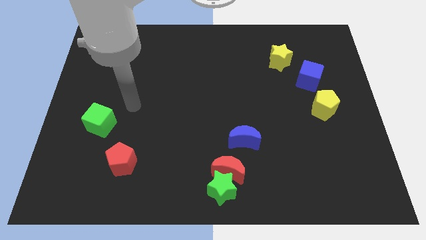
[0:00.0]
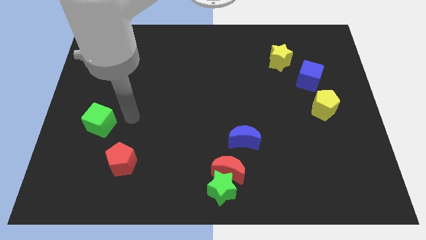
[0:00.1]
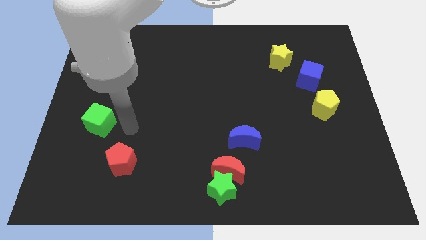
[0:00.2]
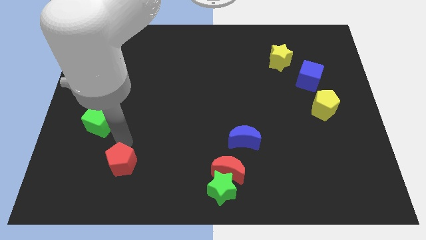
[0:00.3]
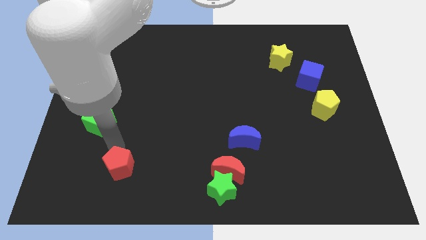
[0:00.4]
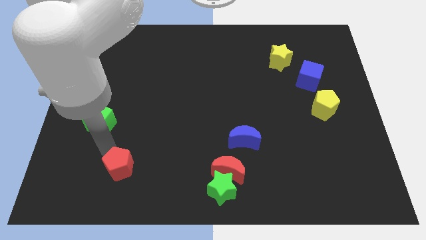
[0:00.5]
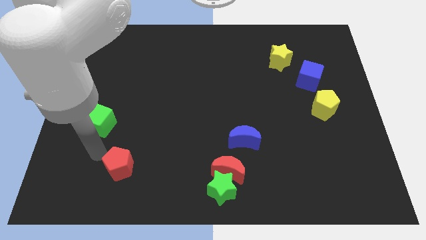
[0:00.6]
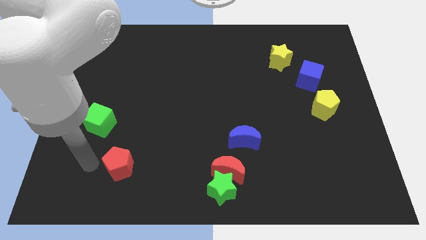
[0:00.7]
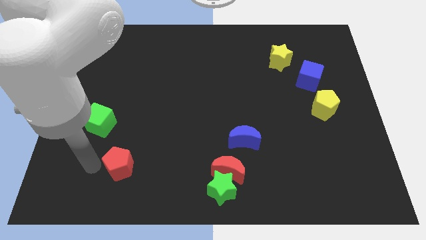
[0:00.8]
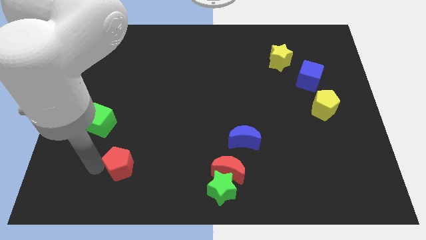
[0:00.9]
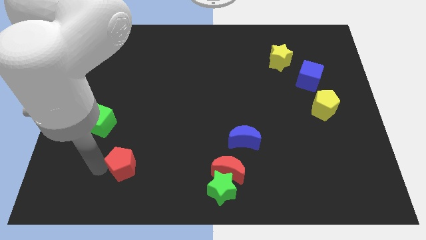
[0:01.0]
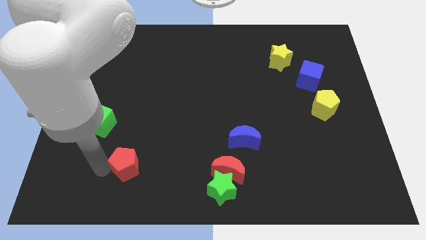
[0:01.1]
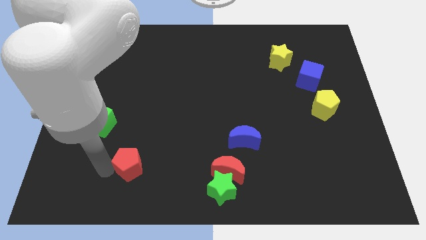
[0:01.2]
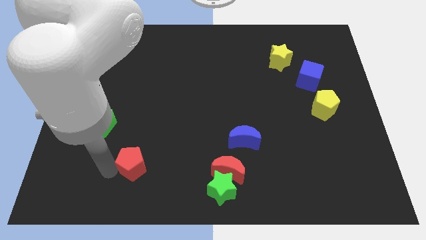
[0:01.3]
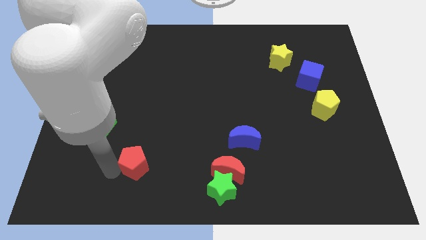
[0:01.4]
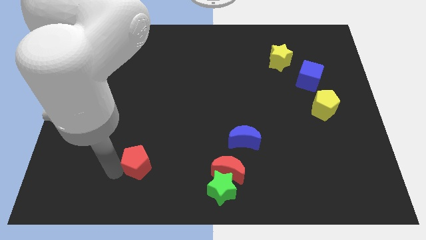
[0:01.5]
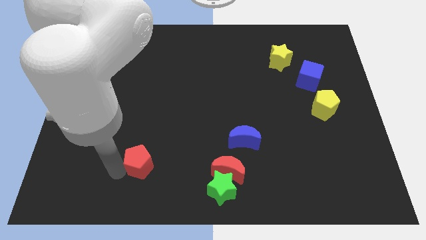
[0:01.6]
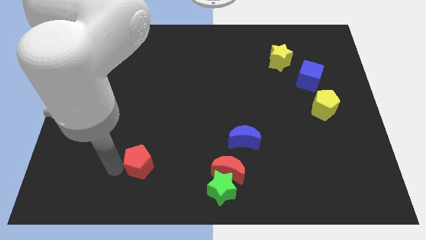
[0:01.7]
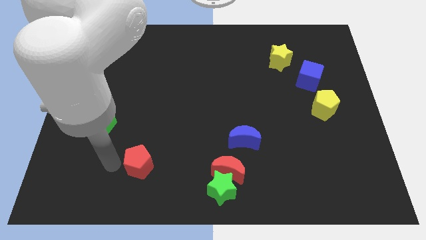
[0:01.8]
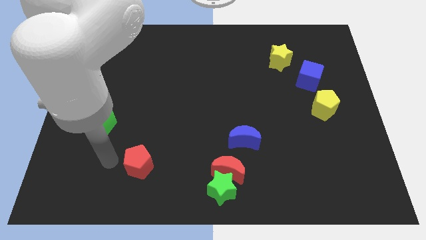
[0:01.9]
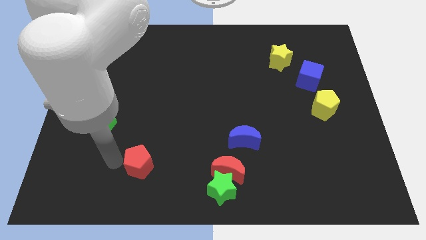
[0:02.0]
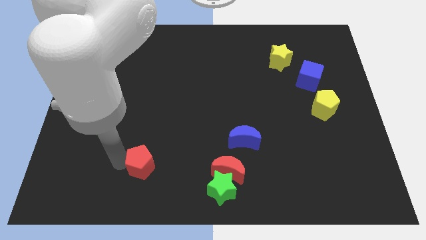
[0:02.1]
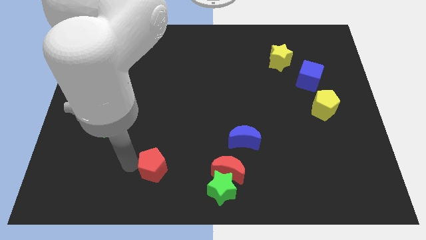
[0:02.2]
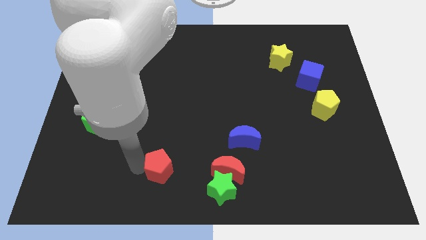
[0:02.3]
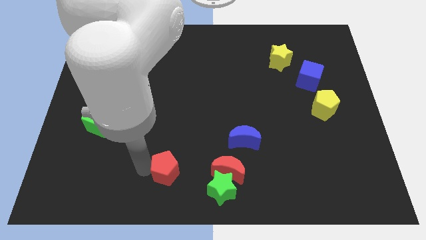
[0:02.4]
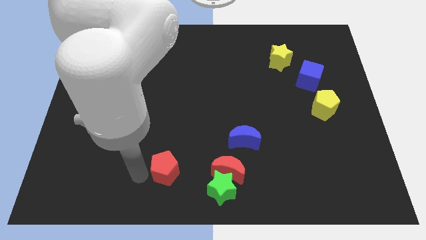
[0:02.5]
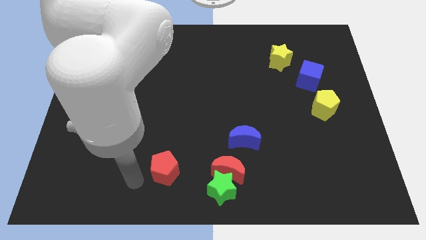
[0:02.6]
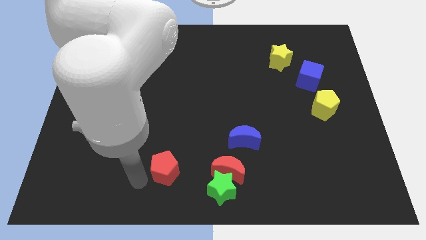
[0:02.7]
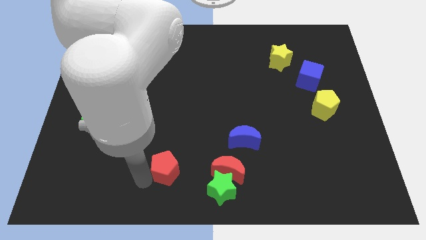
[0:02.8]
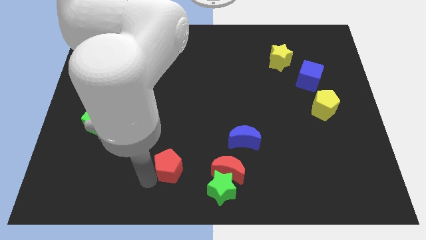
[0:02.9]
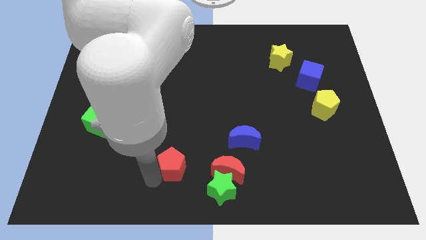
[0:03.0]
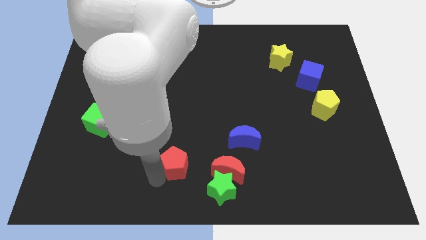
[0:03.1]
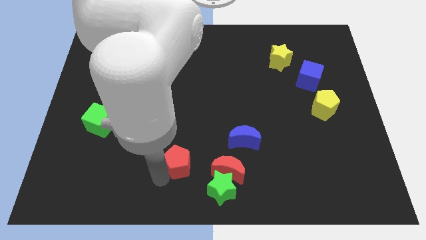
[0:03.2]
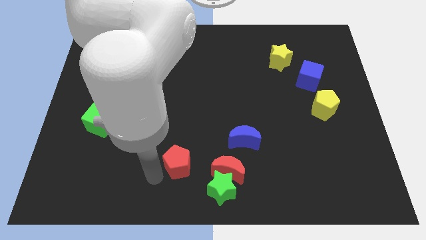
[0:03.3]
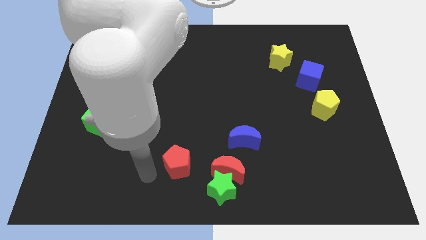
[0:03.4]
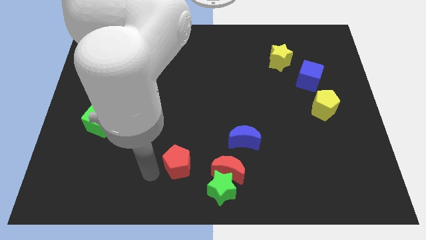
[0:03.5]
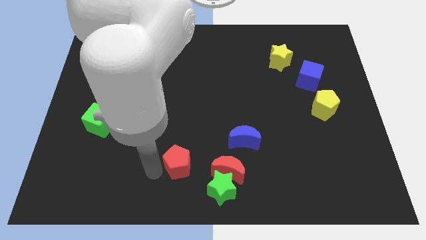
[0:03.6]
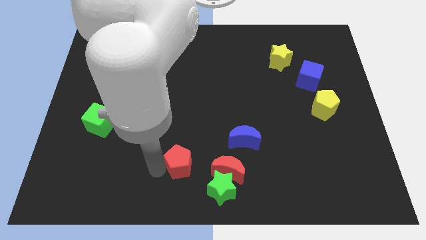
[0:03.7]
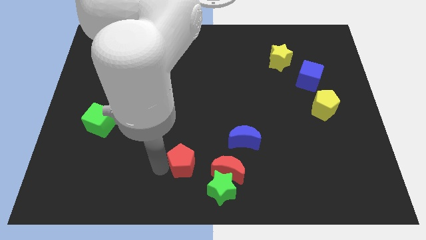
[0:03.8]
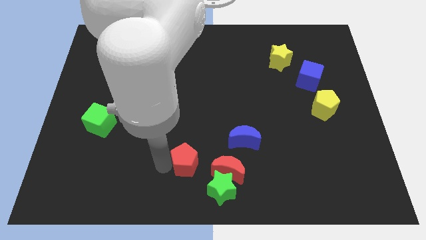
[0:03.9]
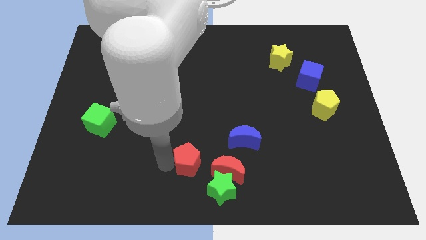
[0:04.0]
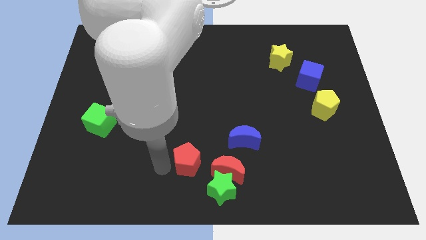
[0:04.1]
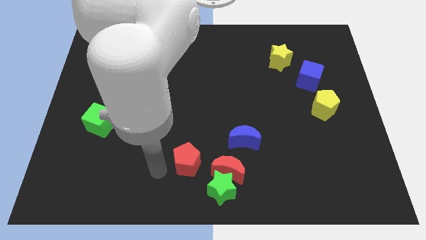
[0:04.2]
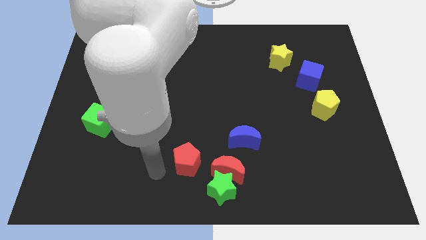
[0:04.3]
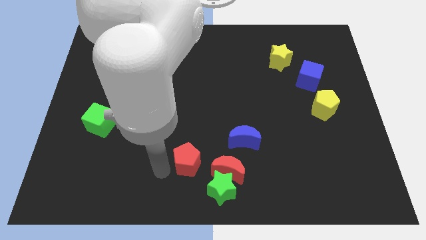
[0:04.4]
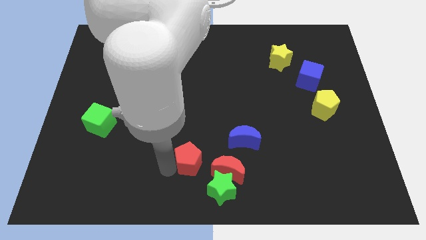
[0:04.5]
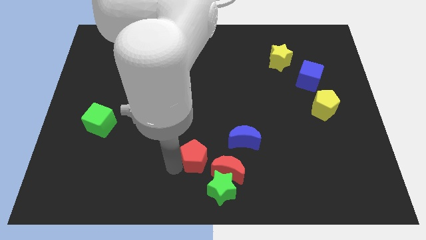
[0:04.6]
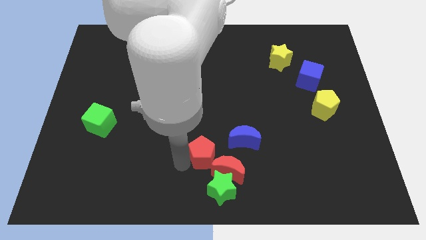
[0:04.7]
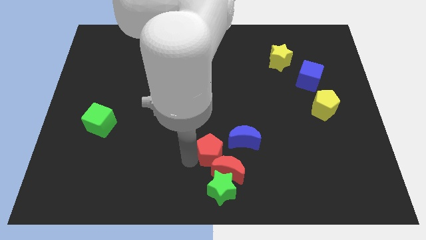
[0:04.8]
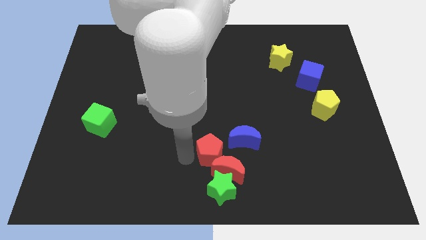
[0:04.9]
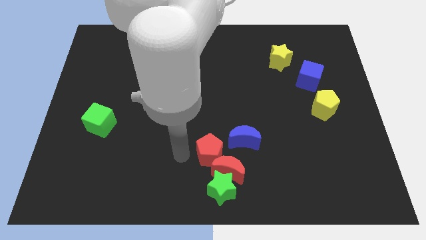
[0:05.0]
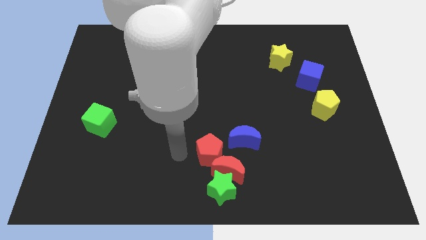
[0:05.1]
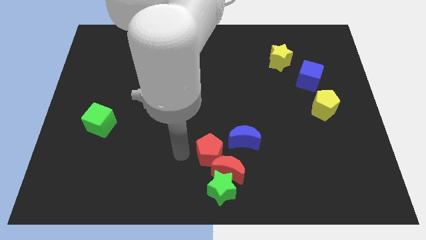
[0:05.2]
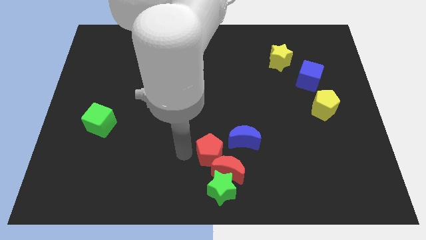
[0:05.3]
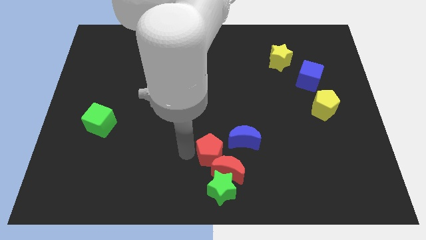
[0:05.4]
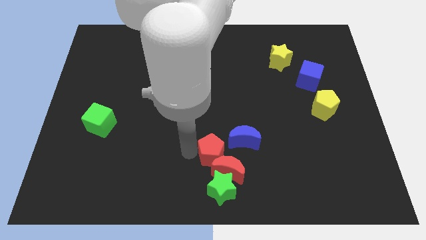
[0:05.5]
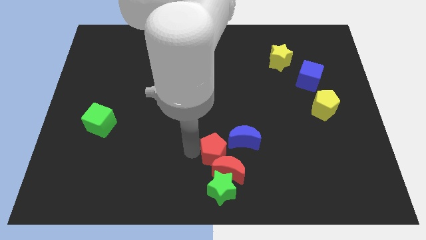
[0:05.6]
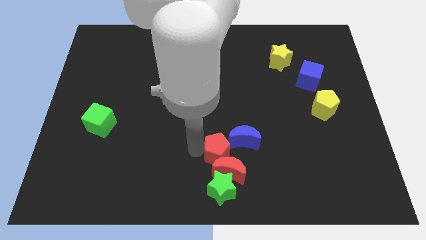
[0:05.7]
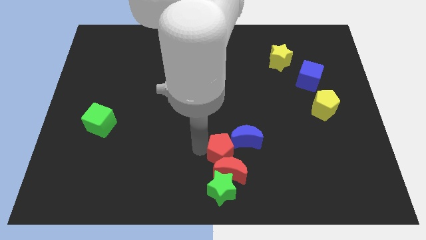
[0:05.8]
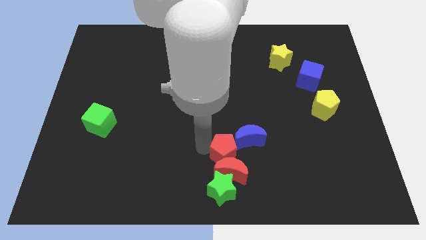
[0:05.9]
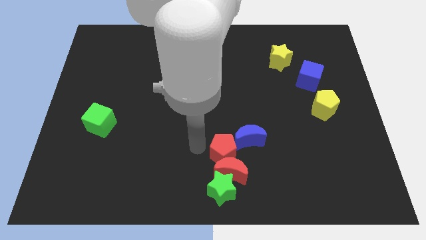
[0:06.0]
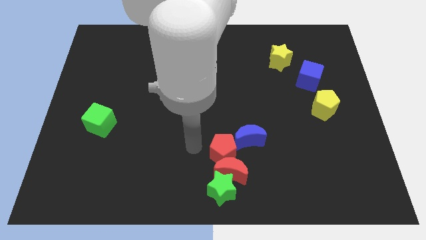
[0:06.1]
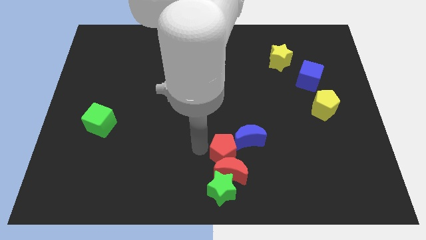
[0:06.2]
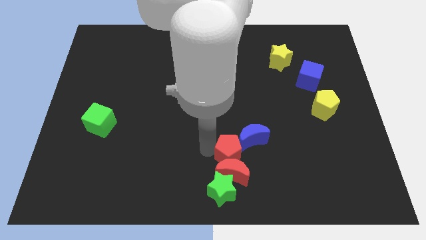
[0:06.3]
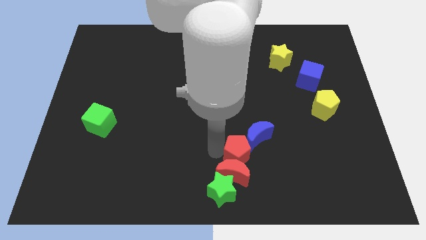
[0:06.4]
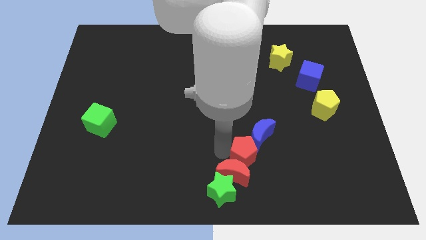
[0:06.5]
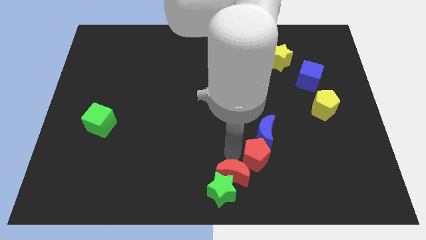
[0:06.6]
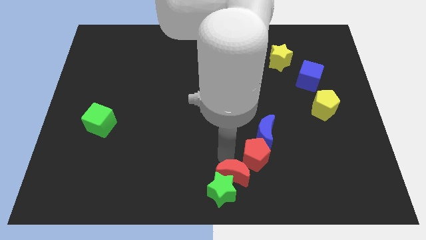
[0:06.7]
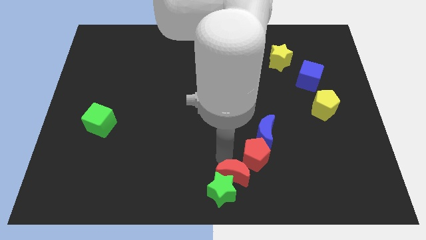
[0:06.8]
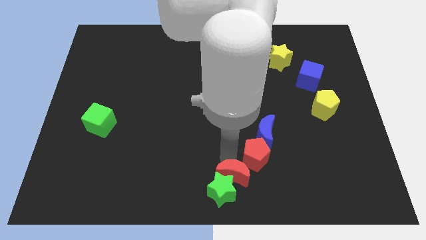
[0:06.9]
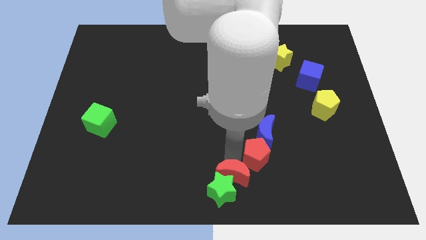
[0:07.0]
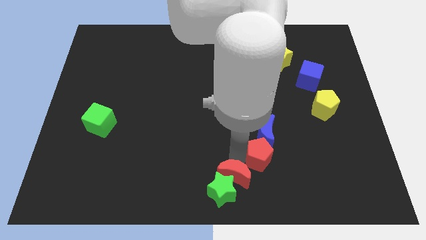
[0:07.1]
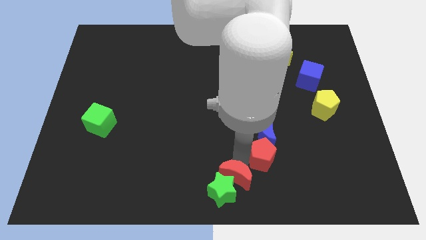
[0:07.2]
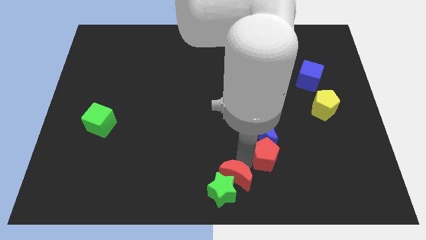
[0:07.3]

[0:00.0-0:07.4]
put the red pentagon diagonally down and to the right of the blue moon
